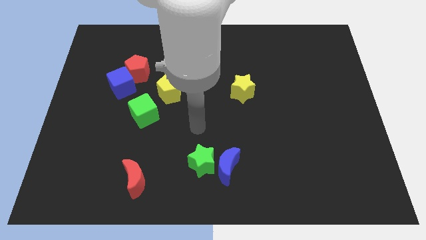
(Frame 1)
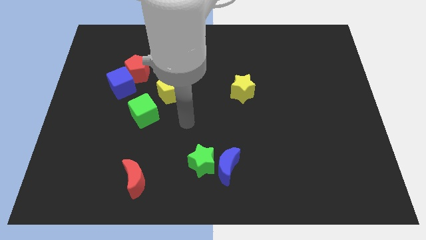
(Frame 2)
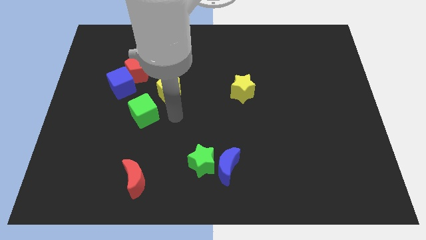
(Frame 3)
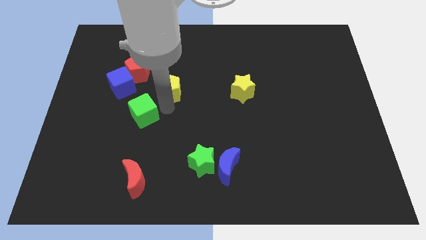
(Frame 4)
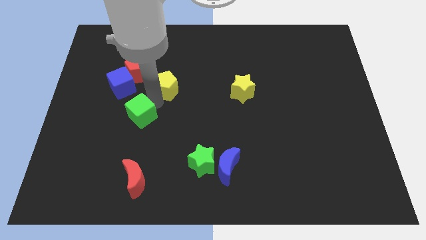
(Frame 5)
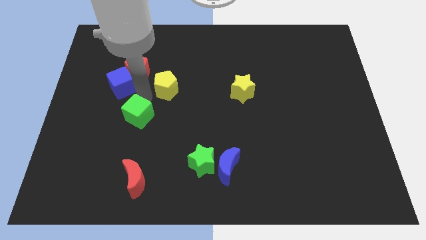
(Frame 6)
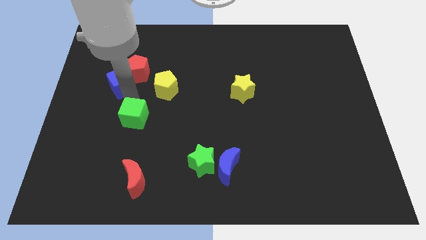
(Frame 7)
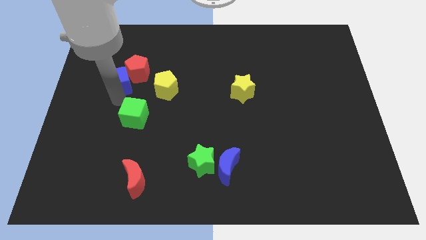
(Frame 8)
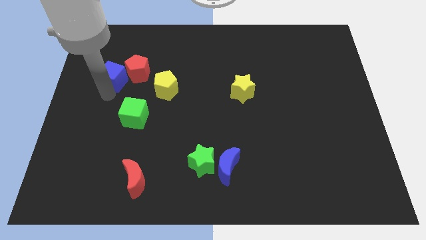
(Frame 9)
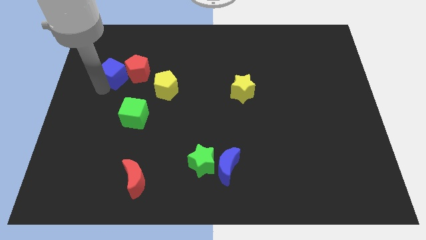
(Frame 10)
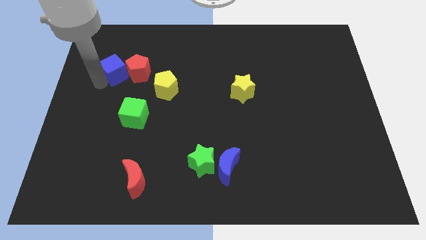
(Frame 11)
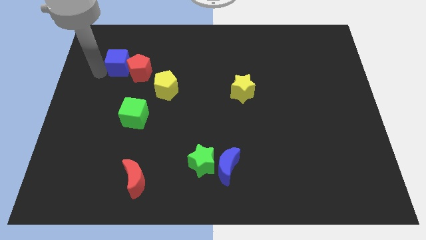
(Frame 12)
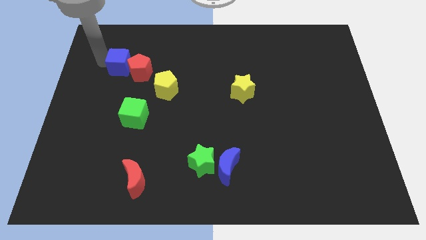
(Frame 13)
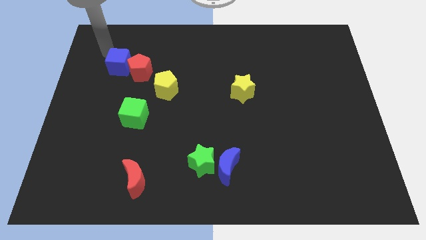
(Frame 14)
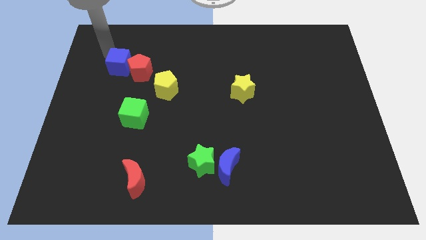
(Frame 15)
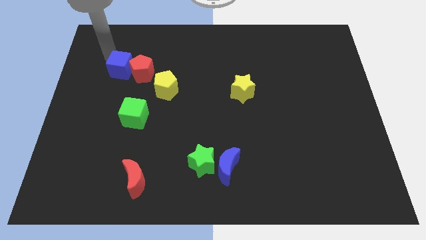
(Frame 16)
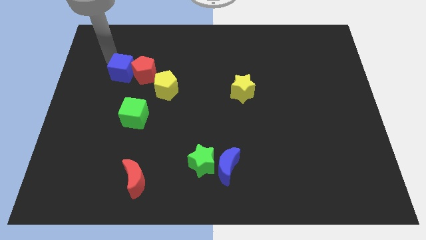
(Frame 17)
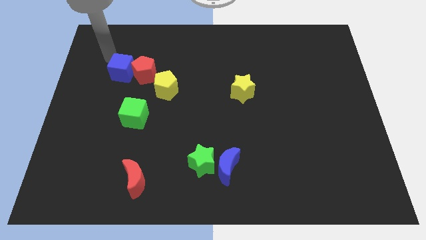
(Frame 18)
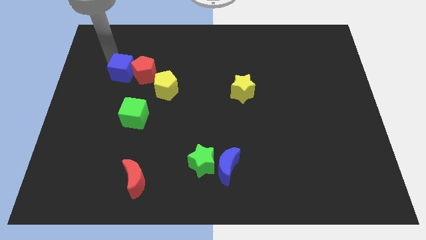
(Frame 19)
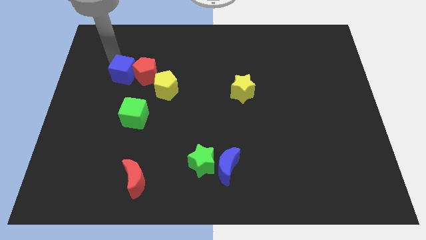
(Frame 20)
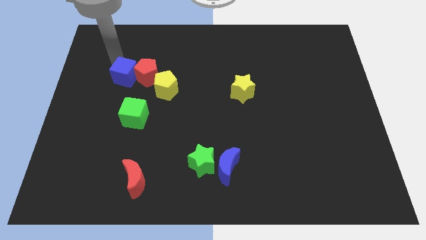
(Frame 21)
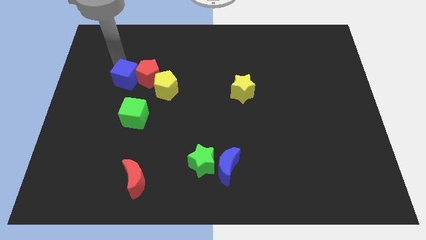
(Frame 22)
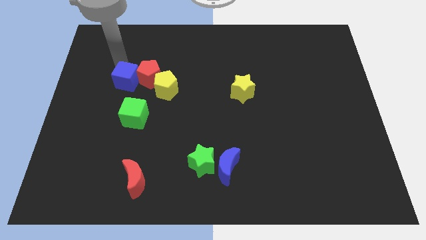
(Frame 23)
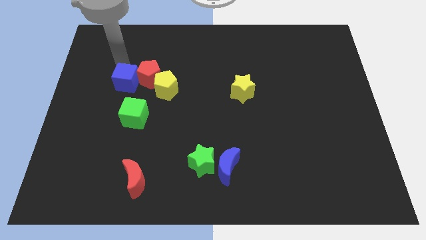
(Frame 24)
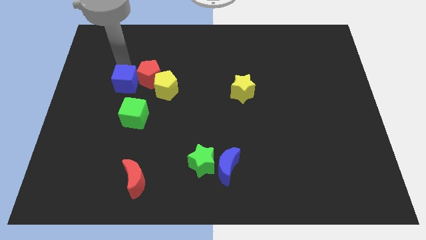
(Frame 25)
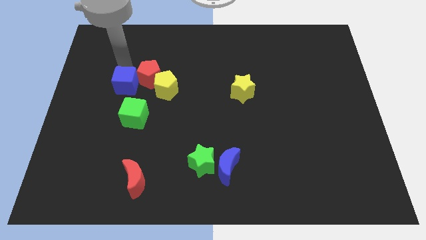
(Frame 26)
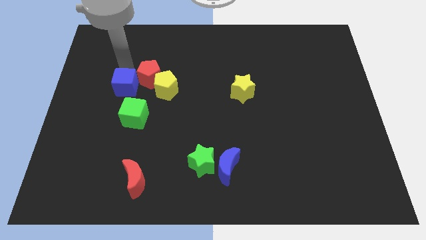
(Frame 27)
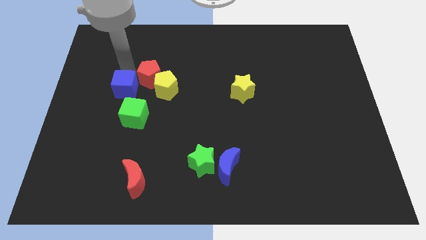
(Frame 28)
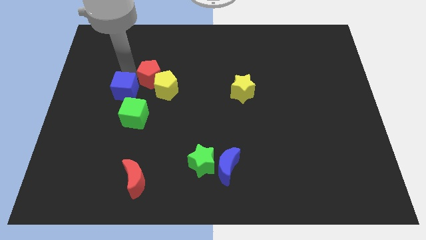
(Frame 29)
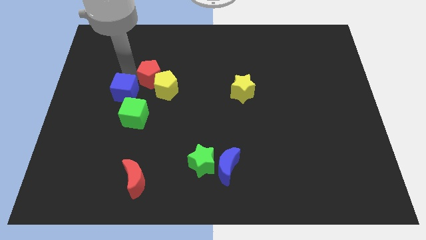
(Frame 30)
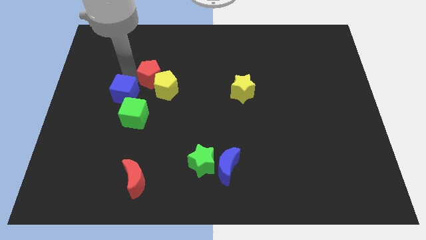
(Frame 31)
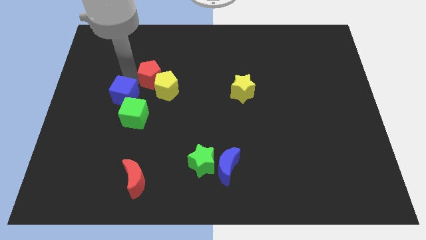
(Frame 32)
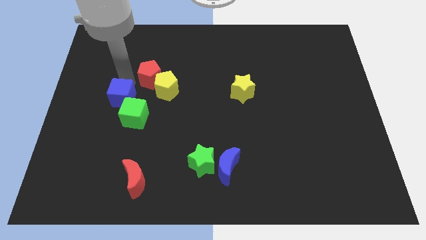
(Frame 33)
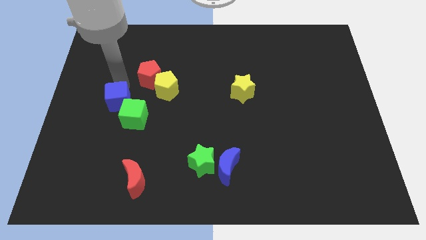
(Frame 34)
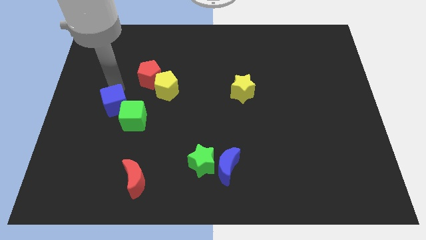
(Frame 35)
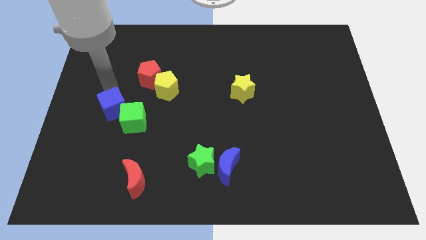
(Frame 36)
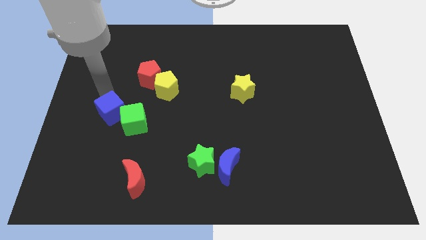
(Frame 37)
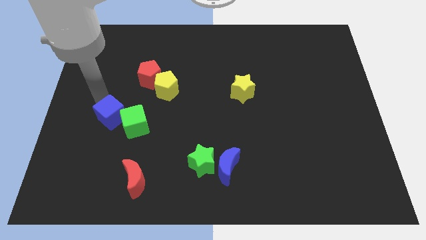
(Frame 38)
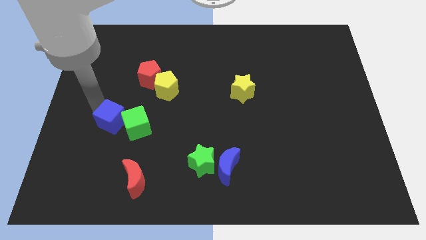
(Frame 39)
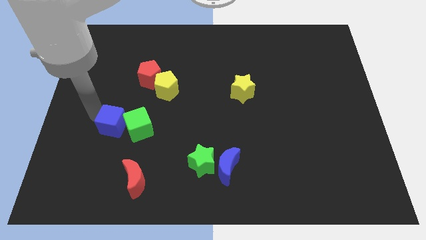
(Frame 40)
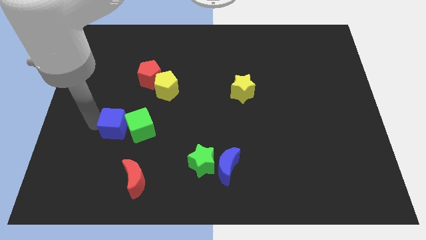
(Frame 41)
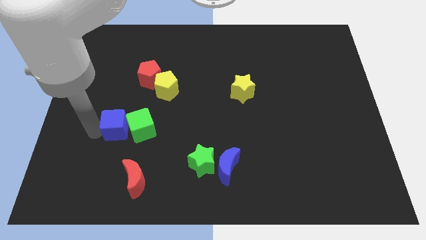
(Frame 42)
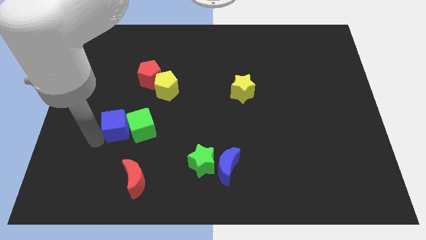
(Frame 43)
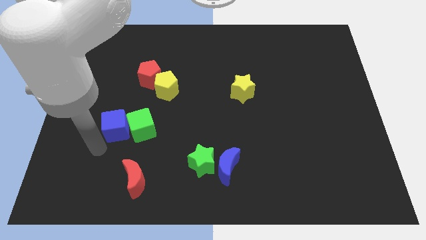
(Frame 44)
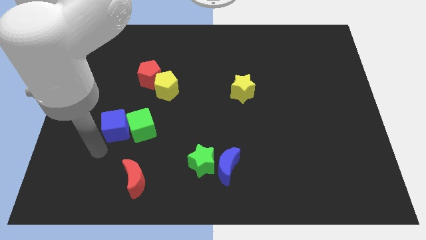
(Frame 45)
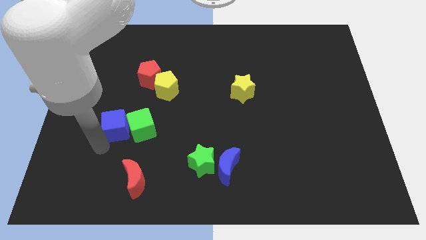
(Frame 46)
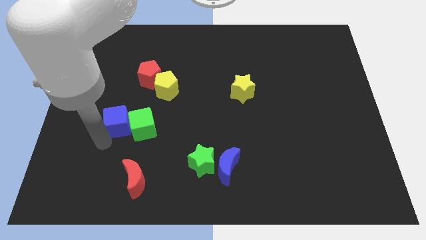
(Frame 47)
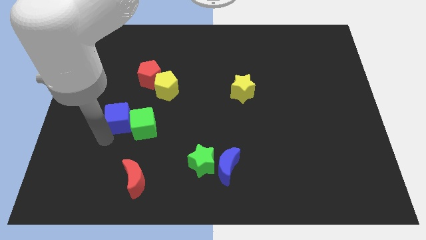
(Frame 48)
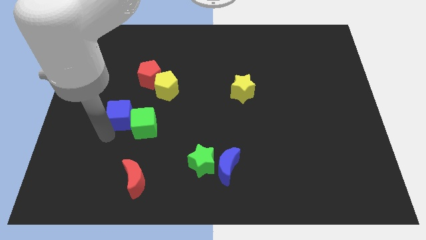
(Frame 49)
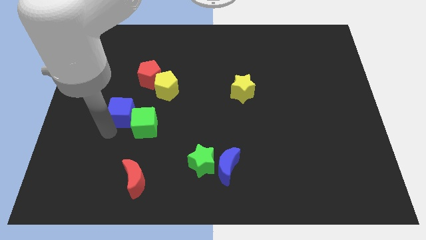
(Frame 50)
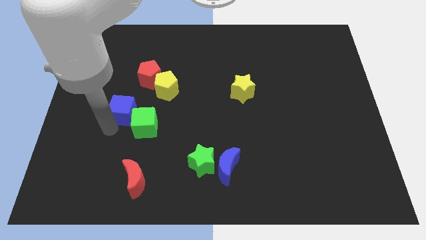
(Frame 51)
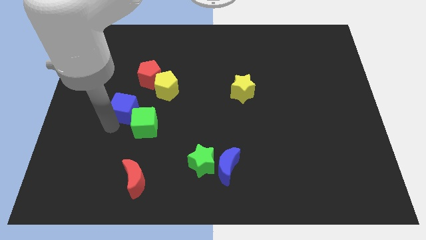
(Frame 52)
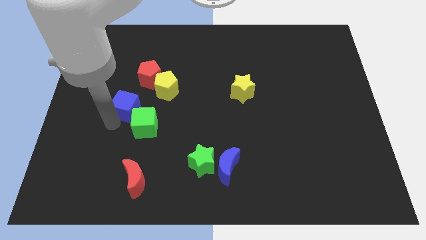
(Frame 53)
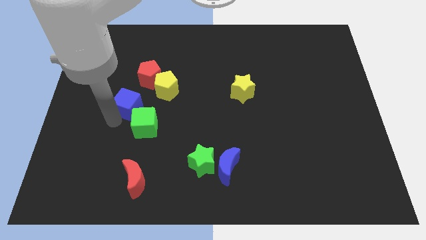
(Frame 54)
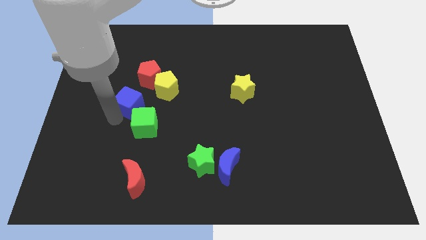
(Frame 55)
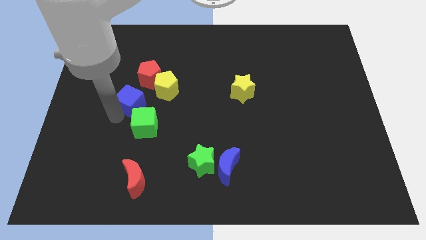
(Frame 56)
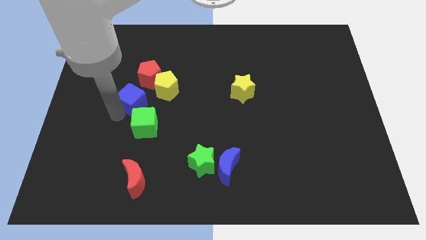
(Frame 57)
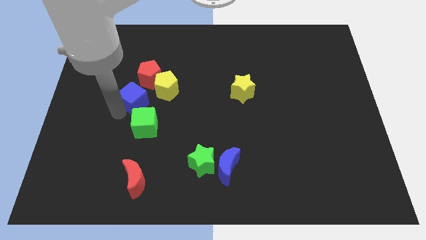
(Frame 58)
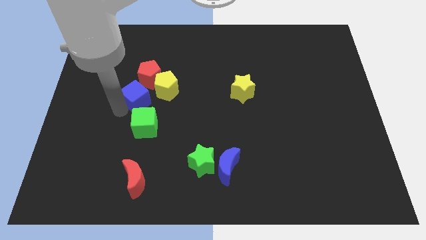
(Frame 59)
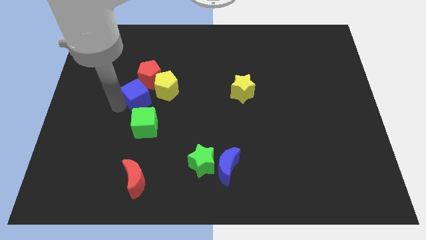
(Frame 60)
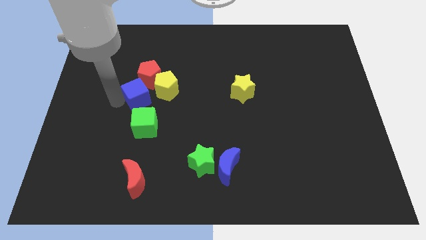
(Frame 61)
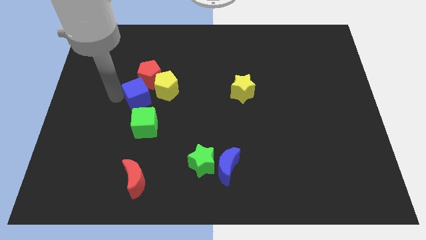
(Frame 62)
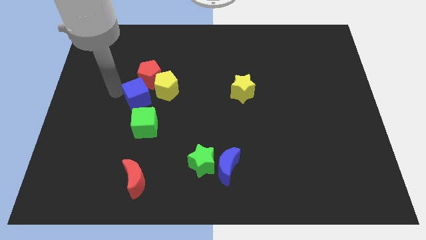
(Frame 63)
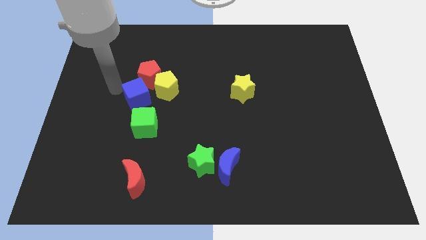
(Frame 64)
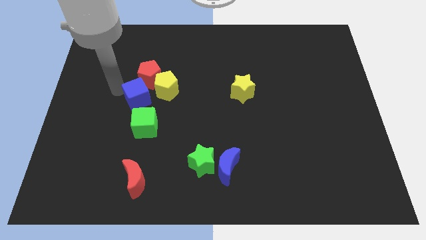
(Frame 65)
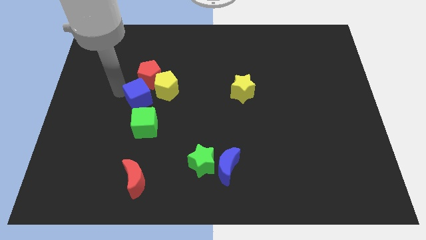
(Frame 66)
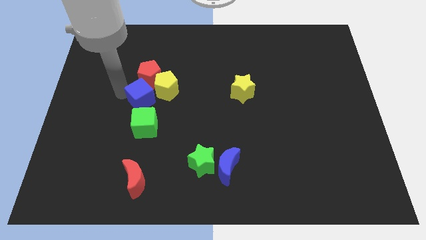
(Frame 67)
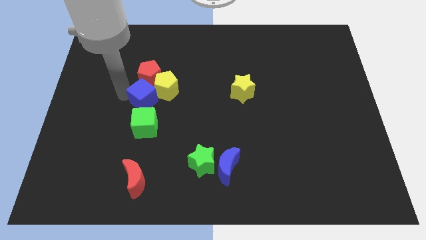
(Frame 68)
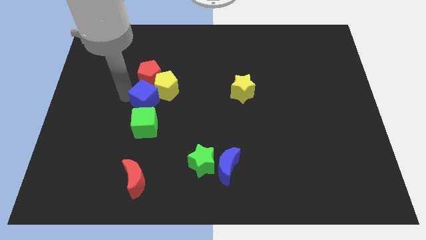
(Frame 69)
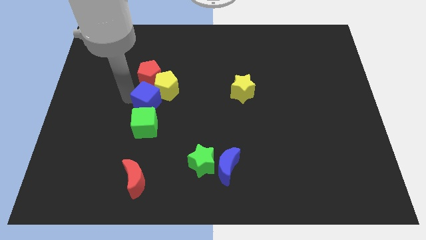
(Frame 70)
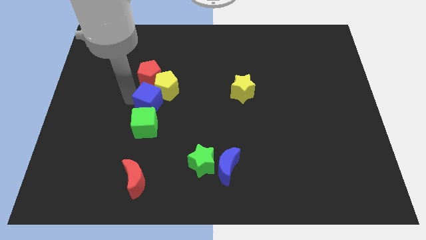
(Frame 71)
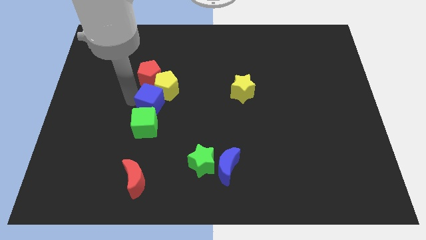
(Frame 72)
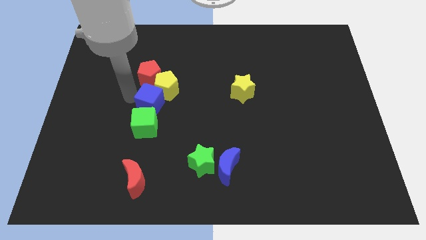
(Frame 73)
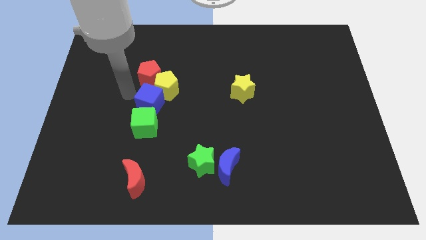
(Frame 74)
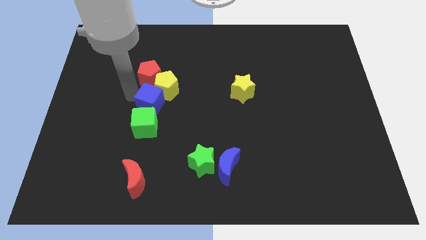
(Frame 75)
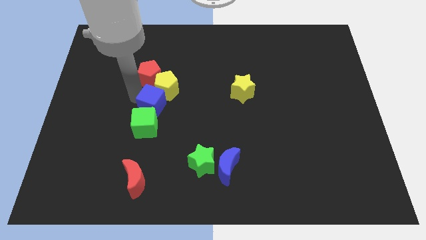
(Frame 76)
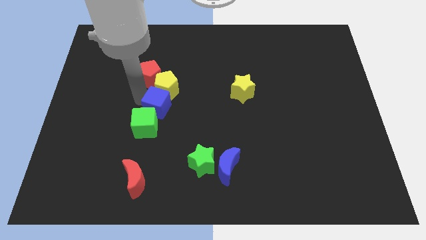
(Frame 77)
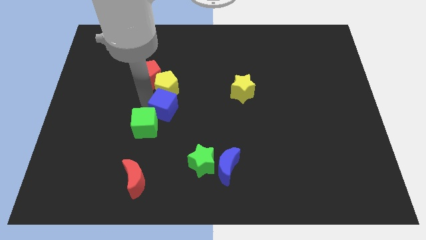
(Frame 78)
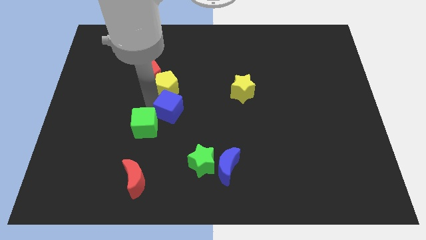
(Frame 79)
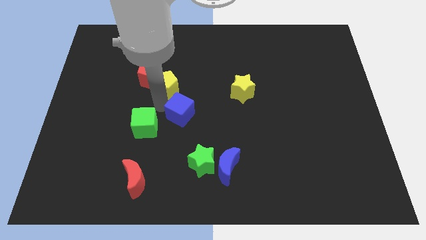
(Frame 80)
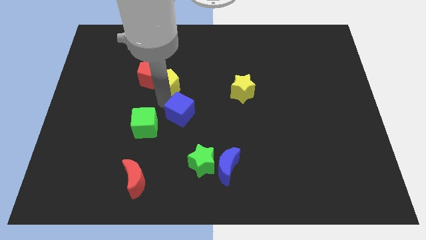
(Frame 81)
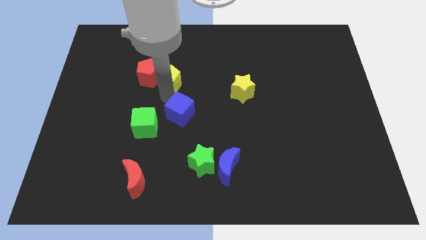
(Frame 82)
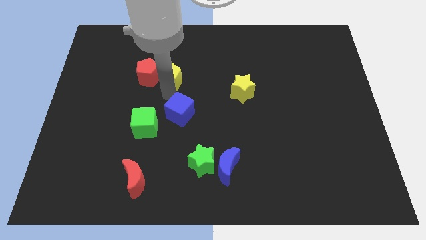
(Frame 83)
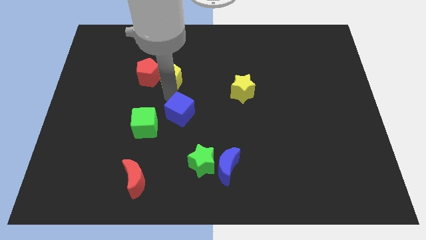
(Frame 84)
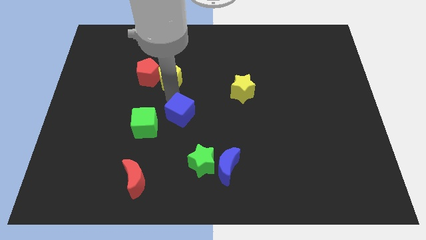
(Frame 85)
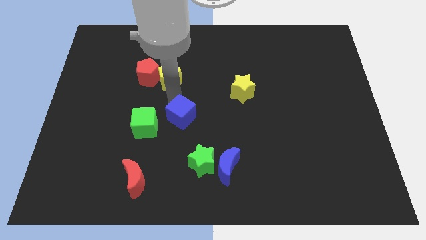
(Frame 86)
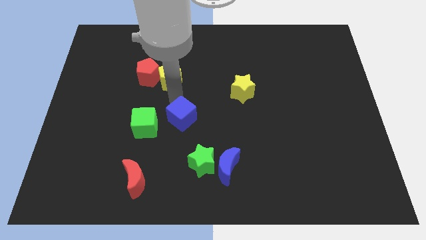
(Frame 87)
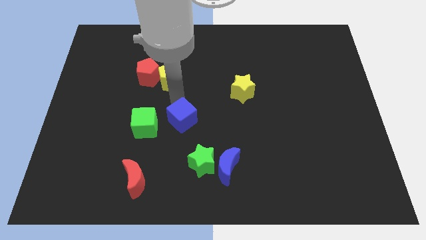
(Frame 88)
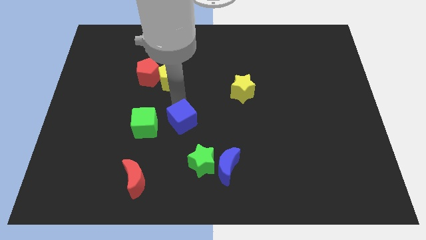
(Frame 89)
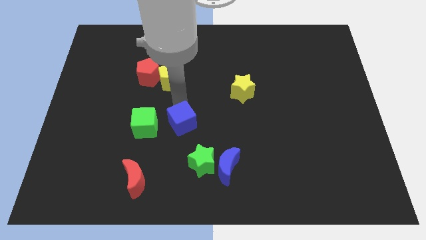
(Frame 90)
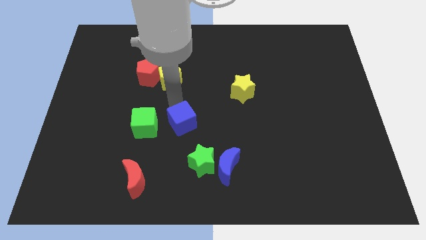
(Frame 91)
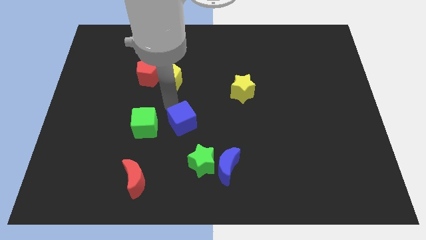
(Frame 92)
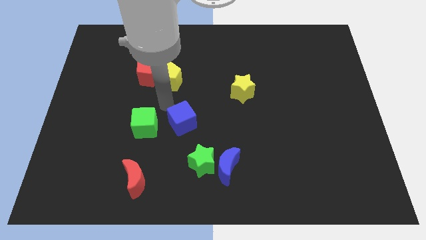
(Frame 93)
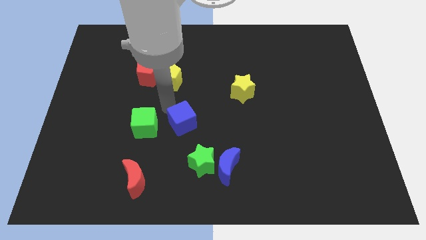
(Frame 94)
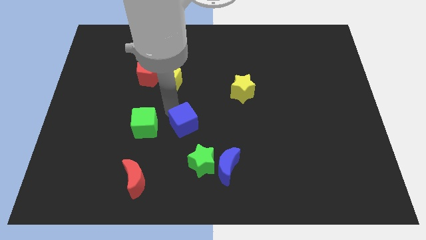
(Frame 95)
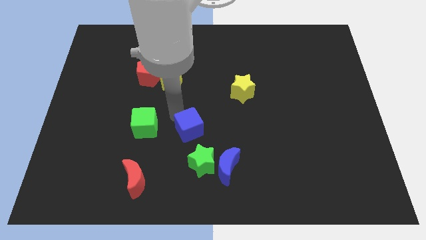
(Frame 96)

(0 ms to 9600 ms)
push the blue cube diagonally up and to the left of the blue moon
